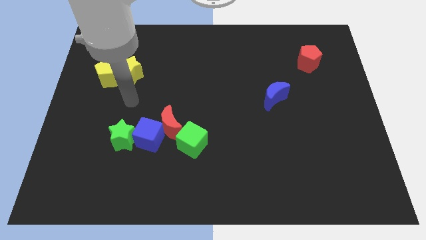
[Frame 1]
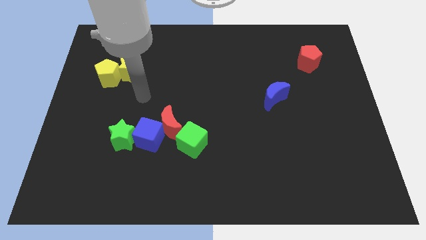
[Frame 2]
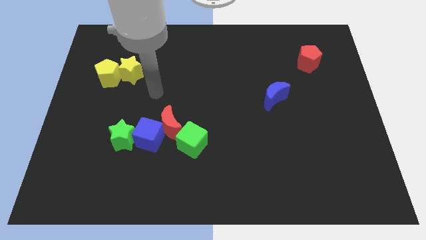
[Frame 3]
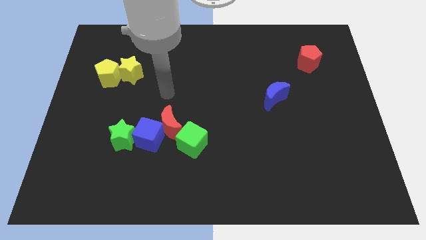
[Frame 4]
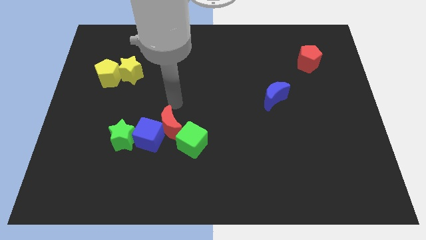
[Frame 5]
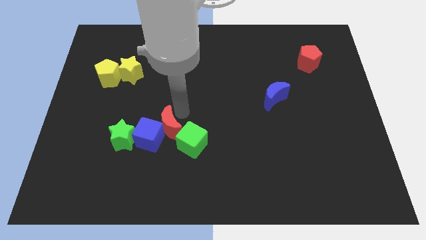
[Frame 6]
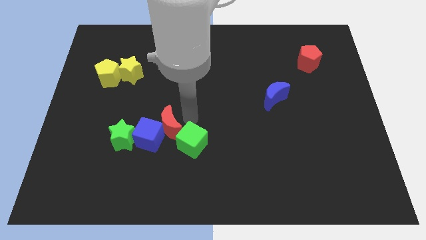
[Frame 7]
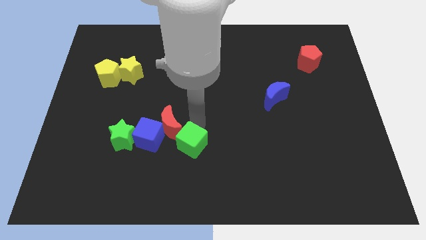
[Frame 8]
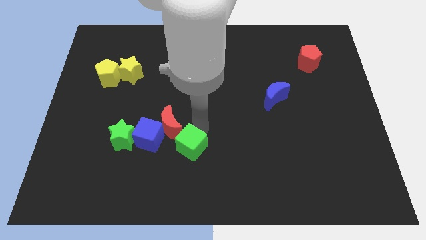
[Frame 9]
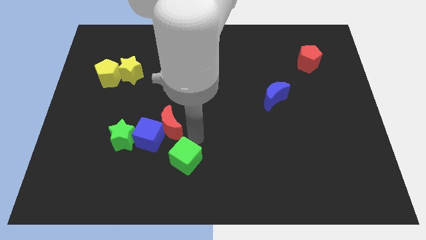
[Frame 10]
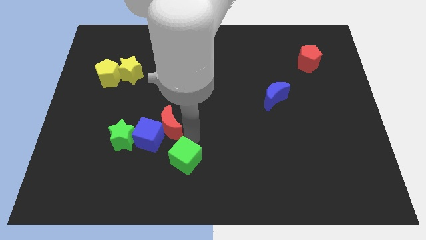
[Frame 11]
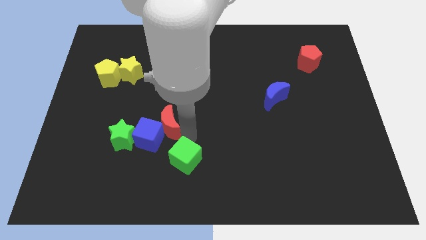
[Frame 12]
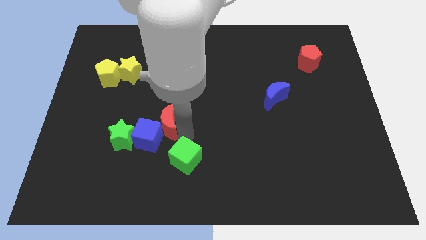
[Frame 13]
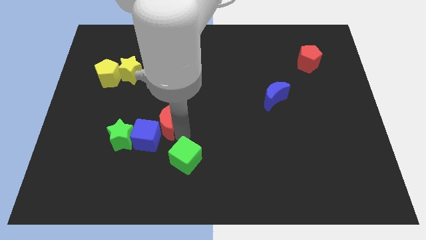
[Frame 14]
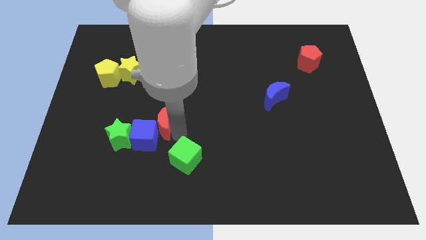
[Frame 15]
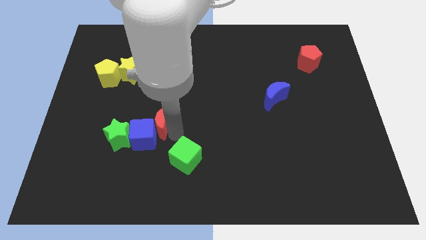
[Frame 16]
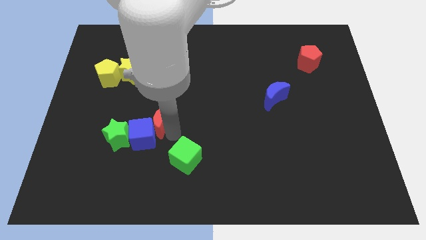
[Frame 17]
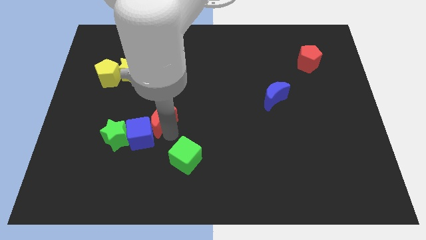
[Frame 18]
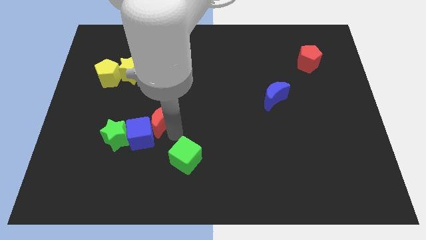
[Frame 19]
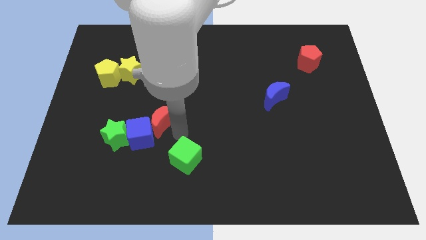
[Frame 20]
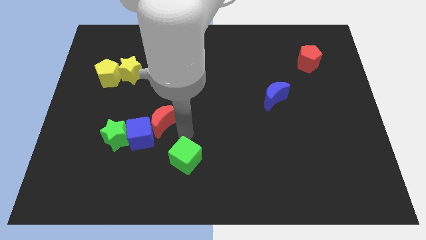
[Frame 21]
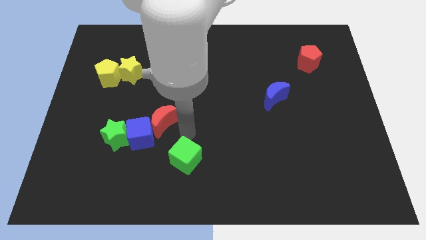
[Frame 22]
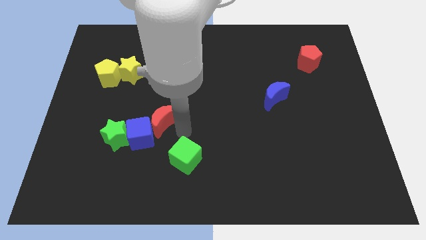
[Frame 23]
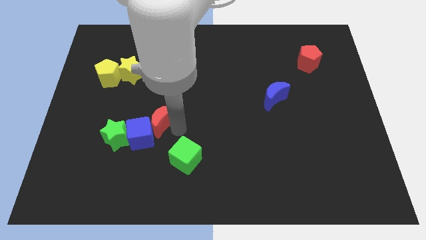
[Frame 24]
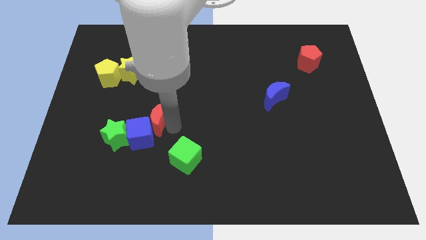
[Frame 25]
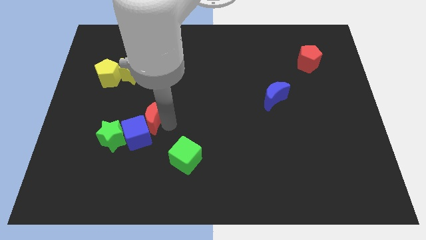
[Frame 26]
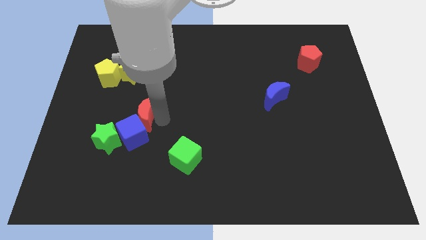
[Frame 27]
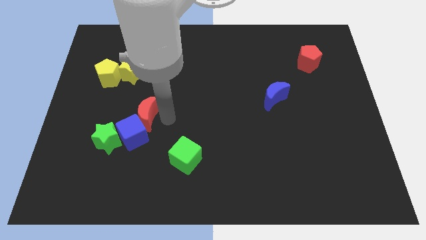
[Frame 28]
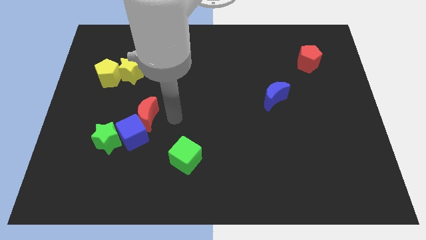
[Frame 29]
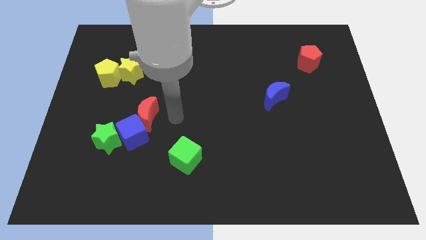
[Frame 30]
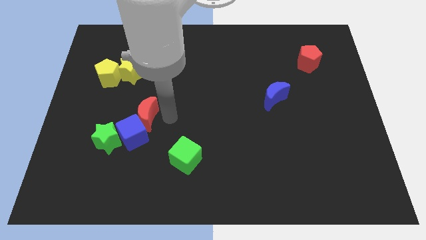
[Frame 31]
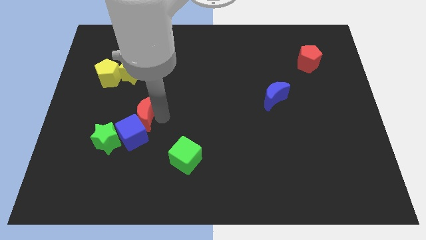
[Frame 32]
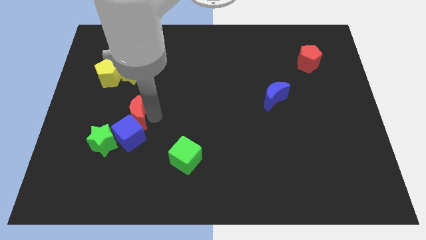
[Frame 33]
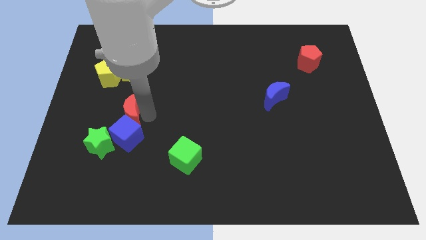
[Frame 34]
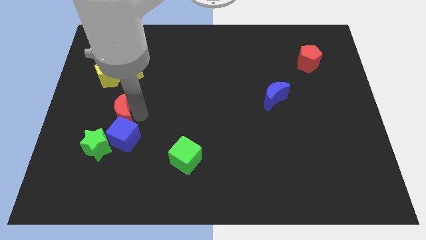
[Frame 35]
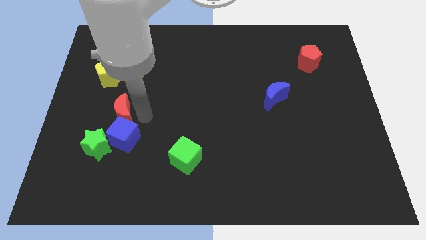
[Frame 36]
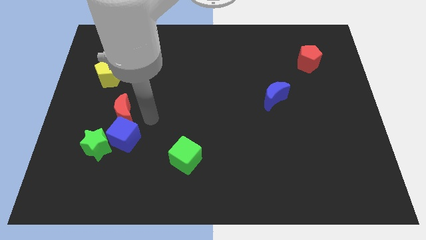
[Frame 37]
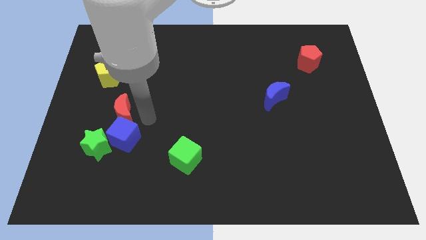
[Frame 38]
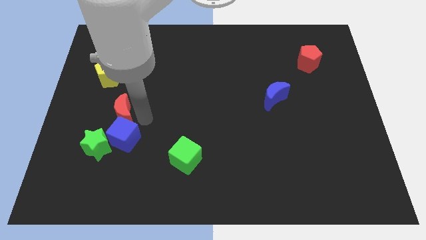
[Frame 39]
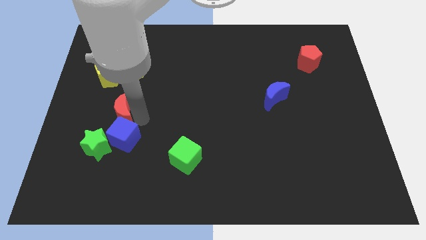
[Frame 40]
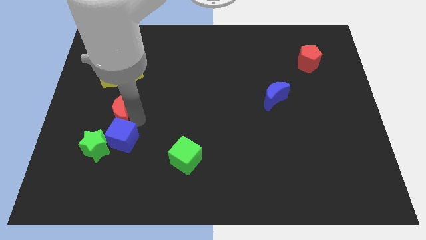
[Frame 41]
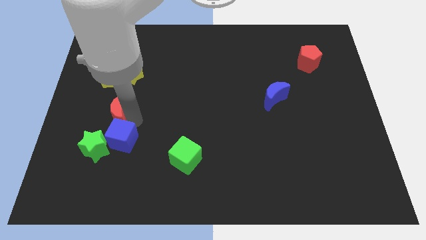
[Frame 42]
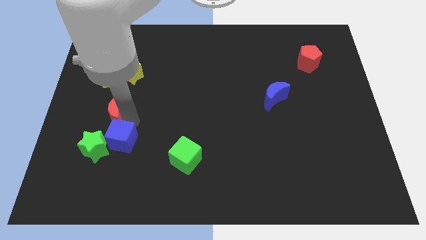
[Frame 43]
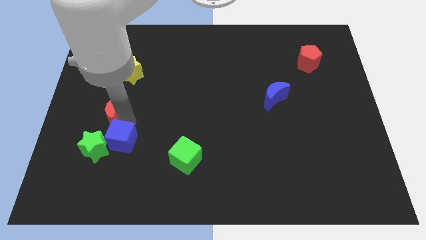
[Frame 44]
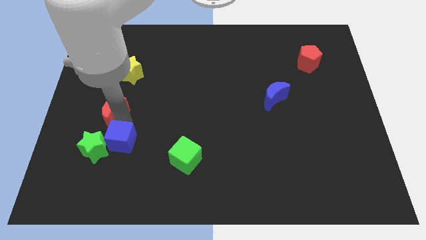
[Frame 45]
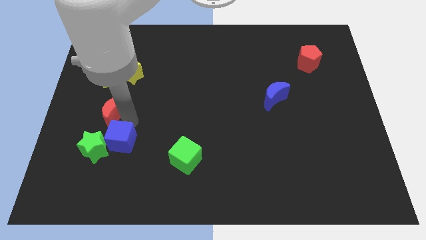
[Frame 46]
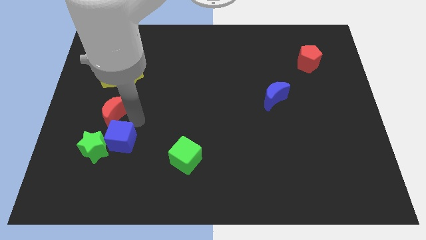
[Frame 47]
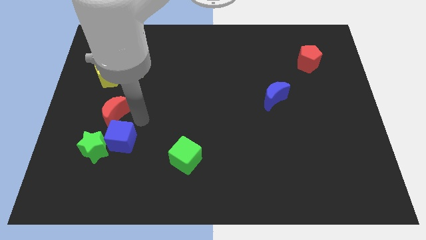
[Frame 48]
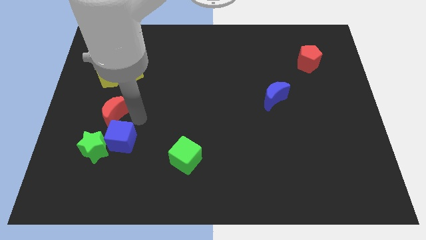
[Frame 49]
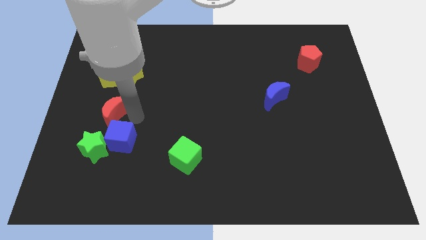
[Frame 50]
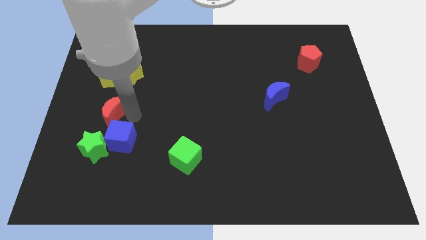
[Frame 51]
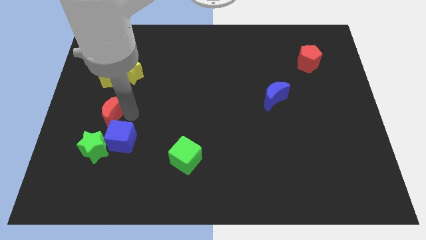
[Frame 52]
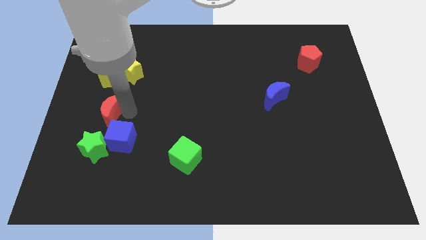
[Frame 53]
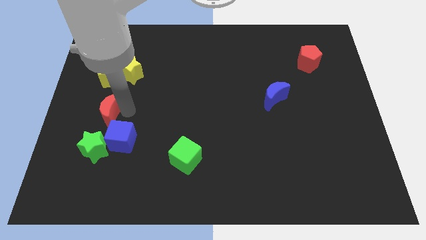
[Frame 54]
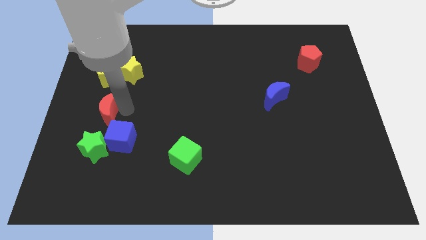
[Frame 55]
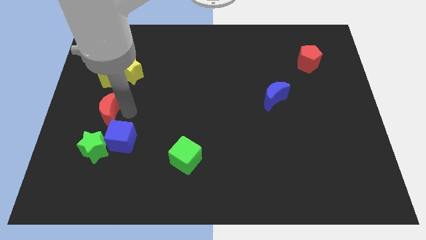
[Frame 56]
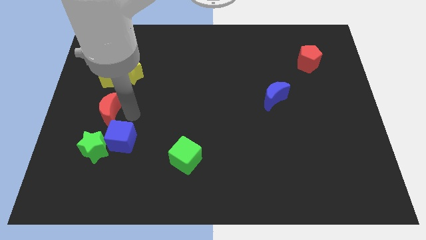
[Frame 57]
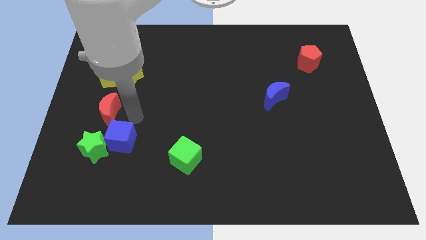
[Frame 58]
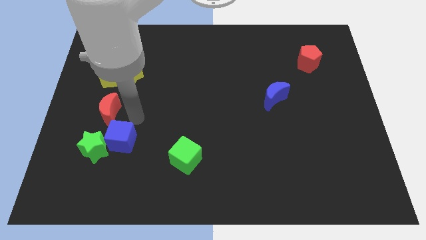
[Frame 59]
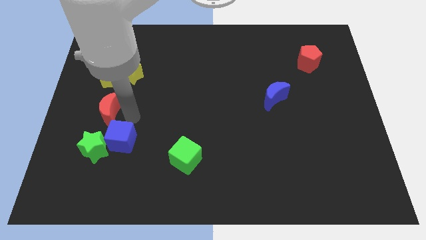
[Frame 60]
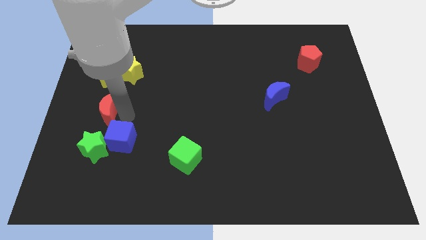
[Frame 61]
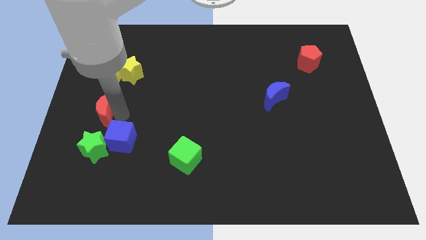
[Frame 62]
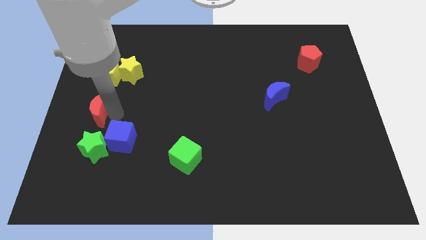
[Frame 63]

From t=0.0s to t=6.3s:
slide the red moon to the left side
